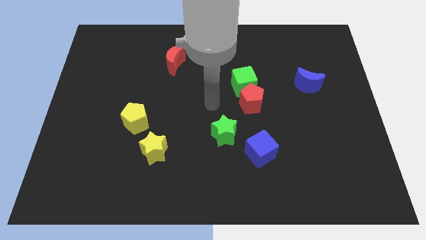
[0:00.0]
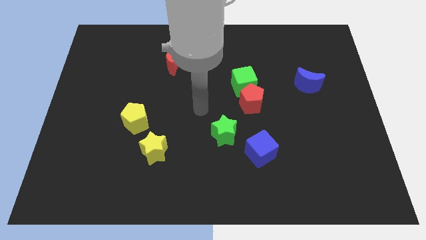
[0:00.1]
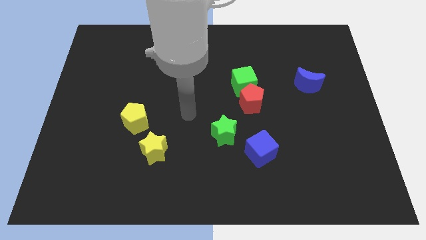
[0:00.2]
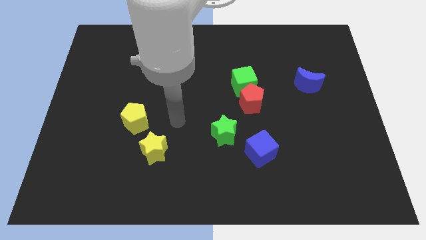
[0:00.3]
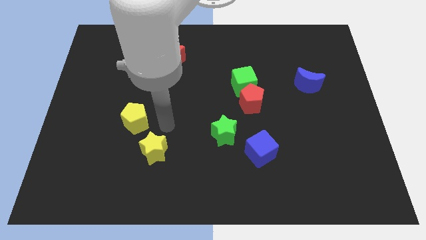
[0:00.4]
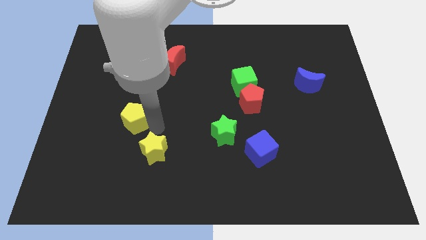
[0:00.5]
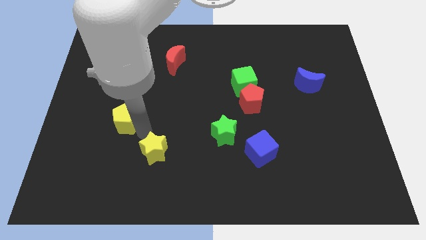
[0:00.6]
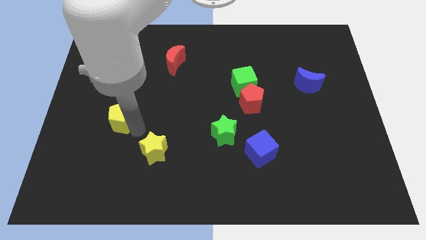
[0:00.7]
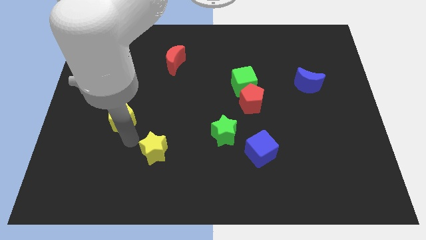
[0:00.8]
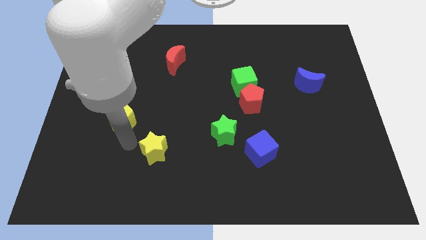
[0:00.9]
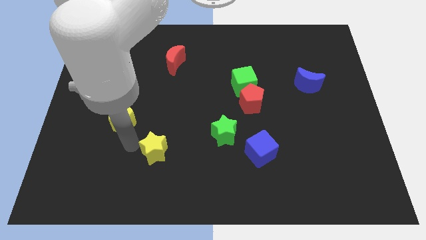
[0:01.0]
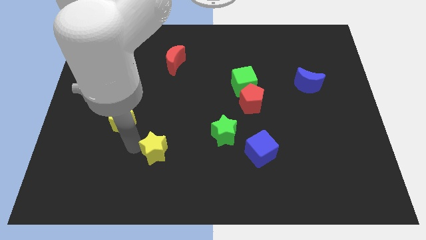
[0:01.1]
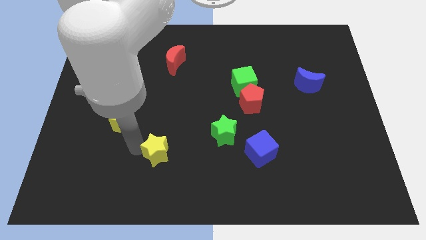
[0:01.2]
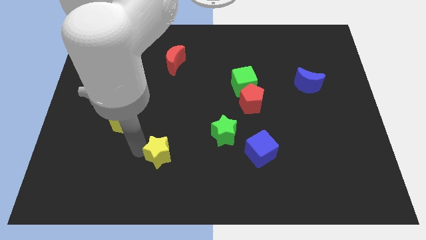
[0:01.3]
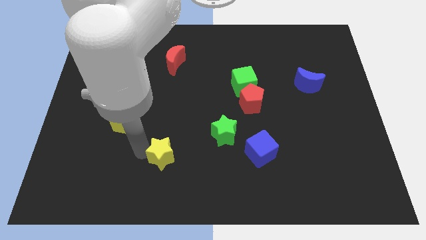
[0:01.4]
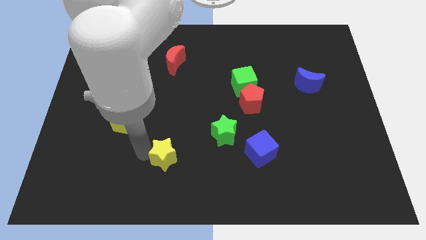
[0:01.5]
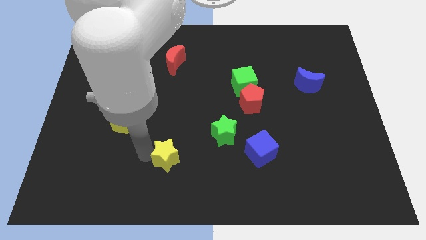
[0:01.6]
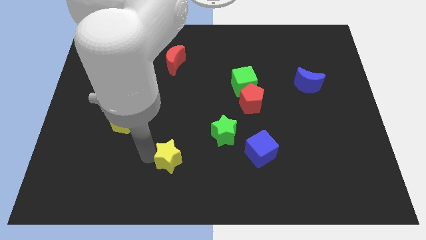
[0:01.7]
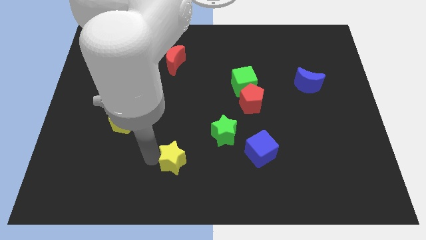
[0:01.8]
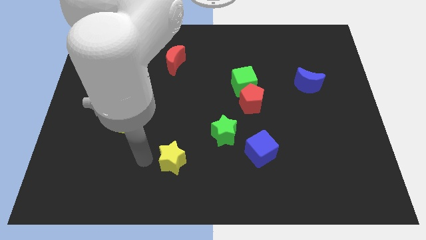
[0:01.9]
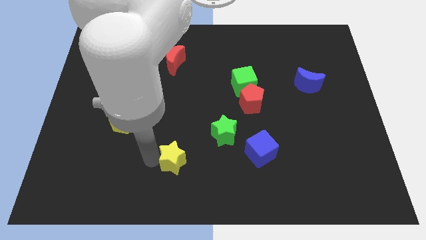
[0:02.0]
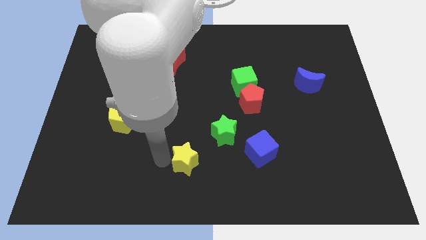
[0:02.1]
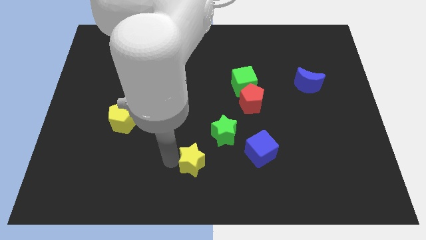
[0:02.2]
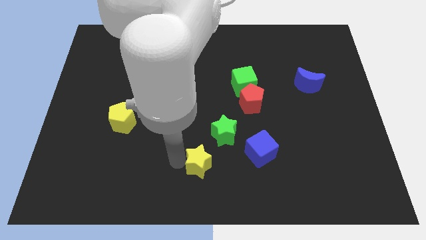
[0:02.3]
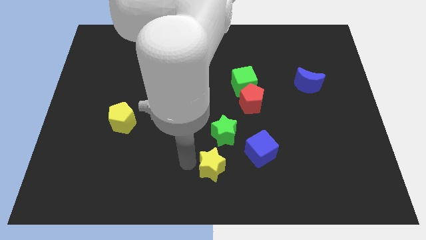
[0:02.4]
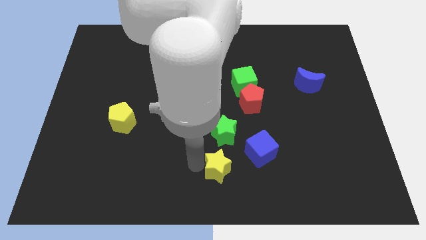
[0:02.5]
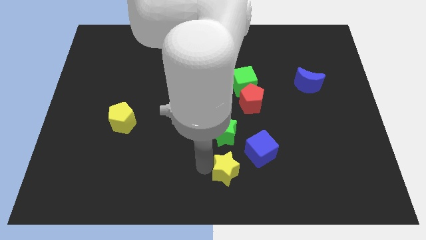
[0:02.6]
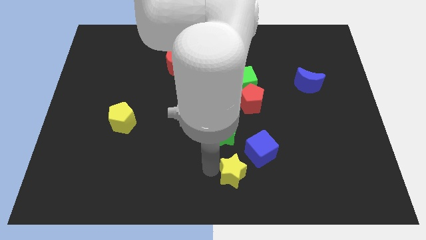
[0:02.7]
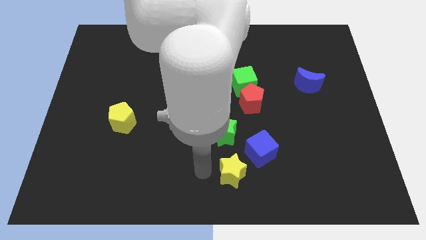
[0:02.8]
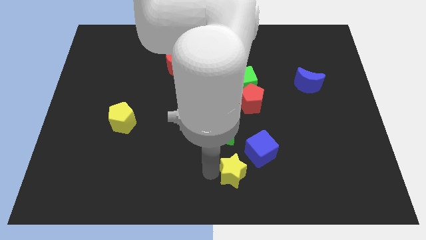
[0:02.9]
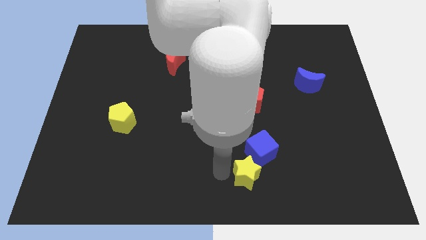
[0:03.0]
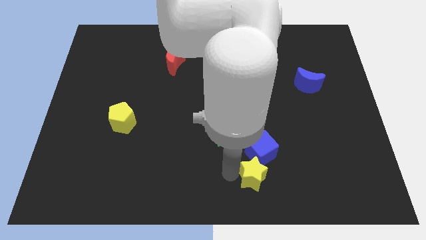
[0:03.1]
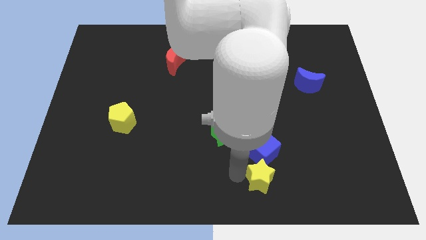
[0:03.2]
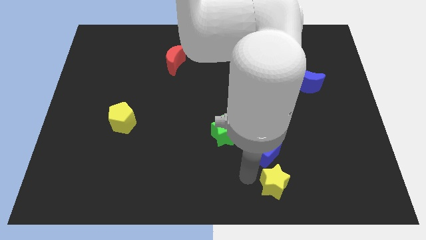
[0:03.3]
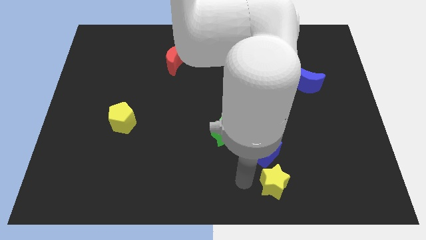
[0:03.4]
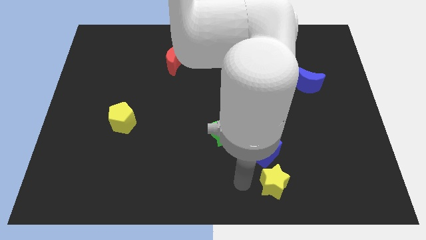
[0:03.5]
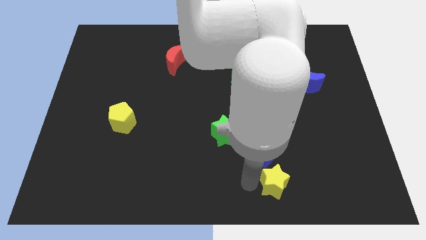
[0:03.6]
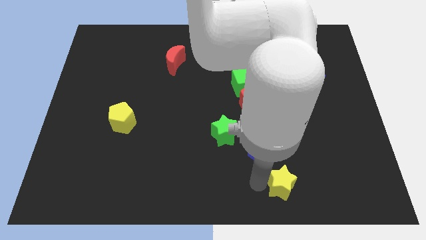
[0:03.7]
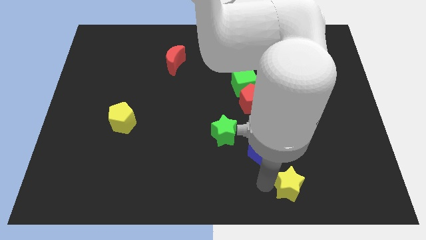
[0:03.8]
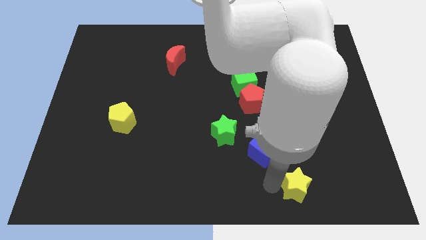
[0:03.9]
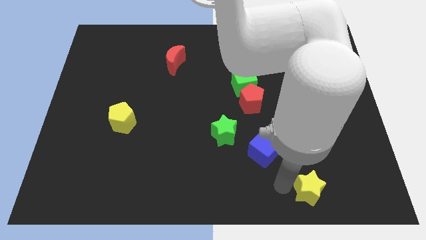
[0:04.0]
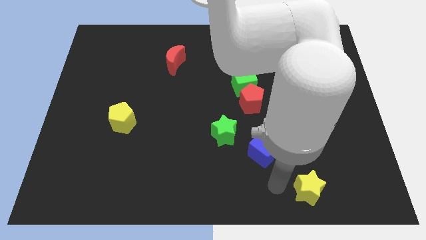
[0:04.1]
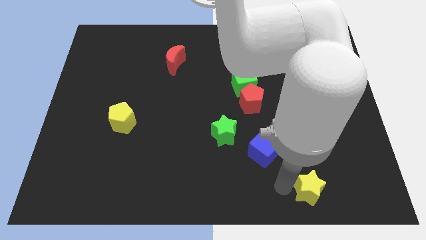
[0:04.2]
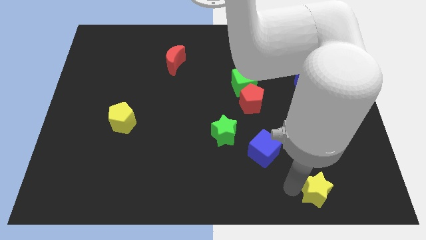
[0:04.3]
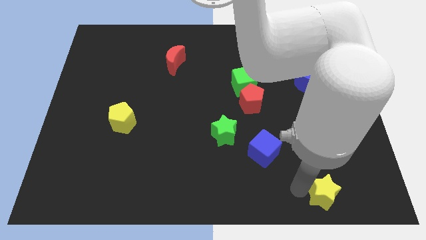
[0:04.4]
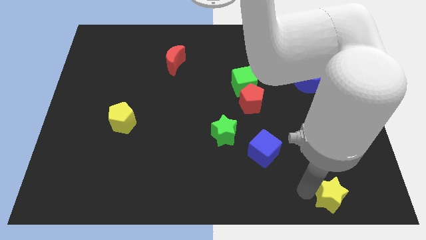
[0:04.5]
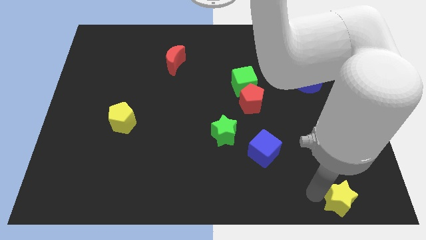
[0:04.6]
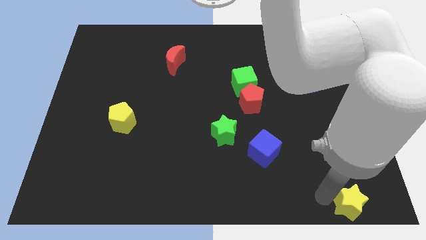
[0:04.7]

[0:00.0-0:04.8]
put the yellow star to the bottom right corner

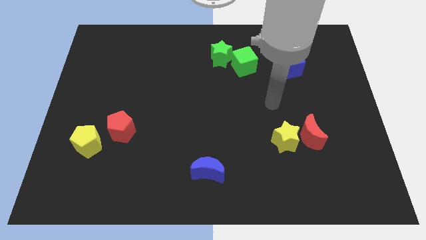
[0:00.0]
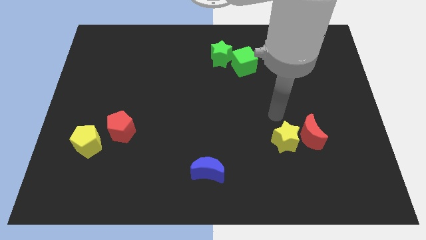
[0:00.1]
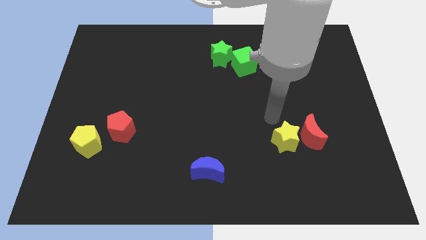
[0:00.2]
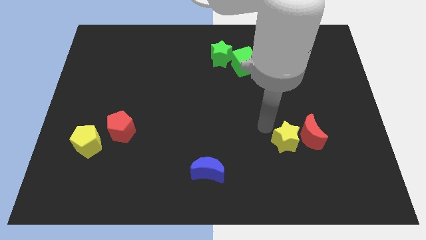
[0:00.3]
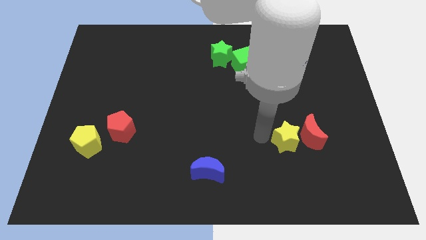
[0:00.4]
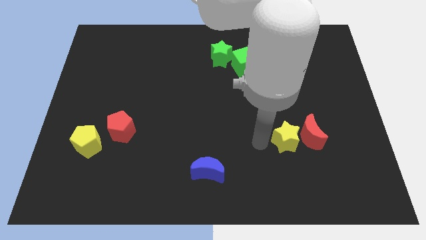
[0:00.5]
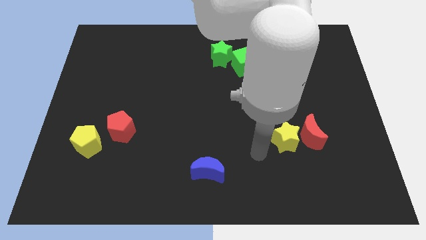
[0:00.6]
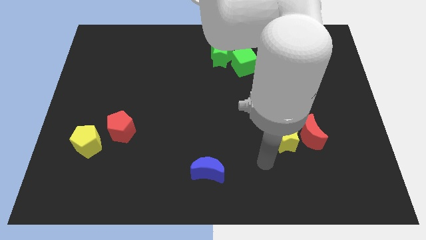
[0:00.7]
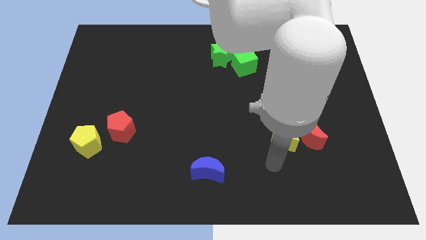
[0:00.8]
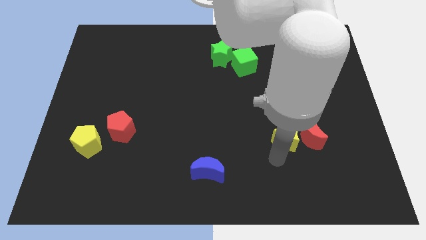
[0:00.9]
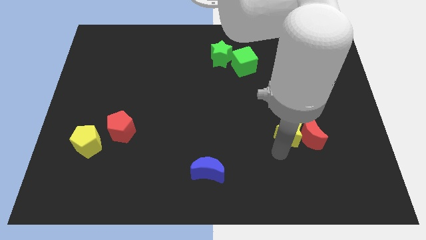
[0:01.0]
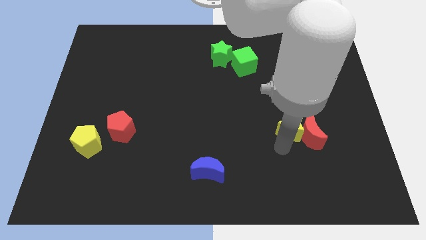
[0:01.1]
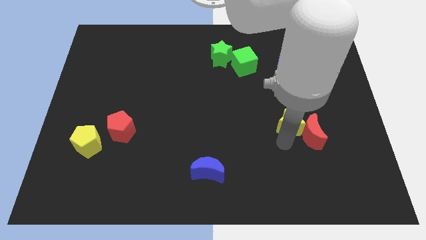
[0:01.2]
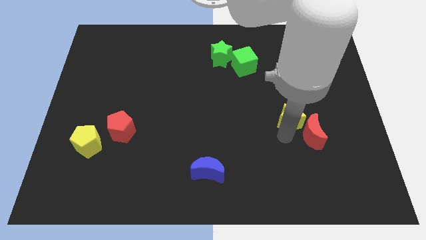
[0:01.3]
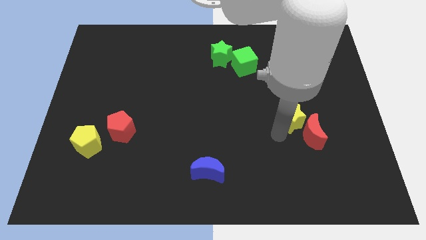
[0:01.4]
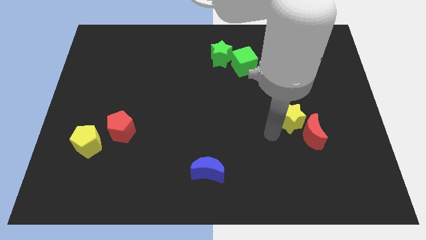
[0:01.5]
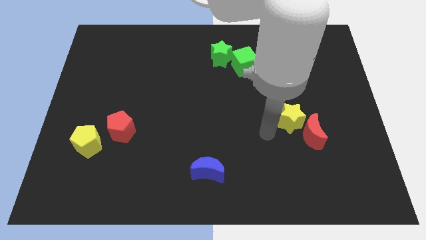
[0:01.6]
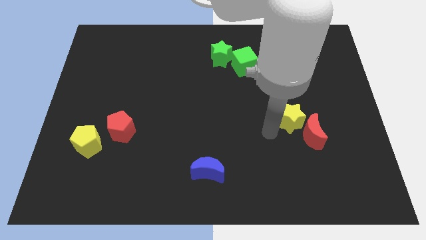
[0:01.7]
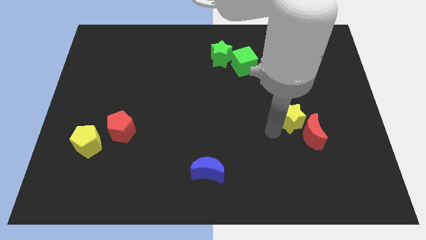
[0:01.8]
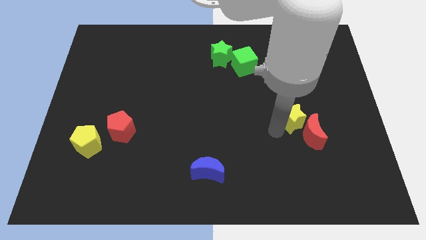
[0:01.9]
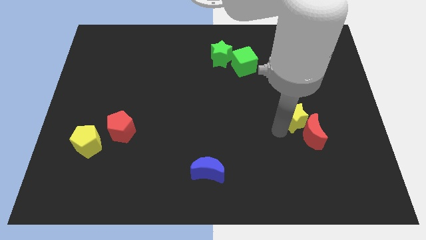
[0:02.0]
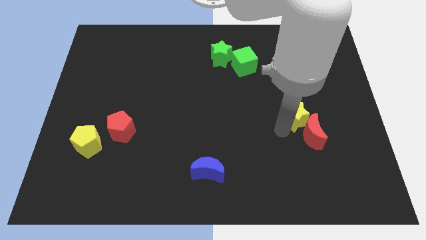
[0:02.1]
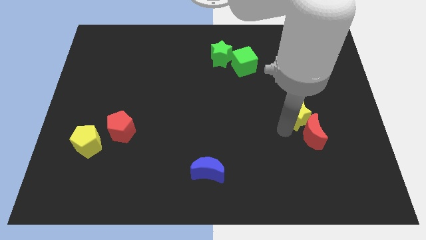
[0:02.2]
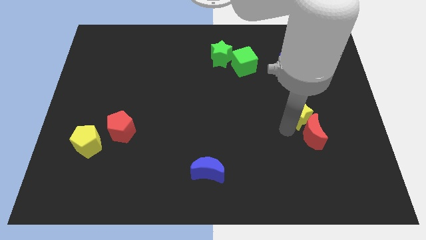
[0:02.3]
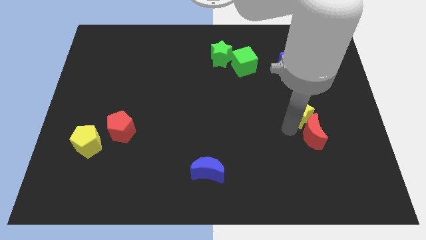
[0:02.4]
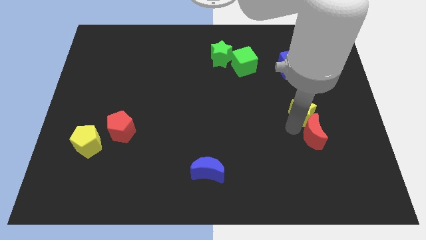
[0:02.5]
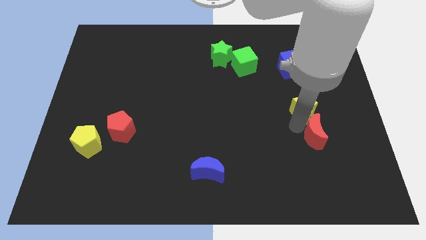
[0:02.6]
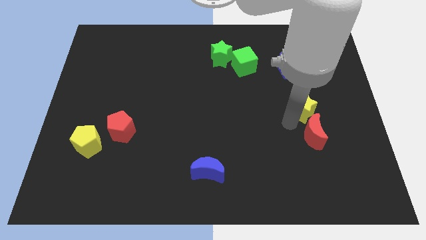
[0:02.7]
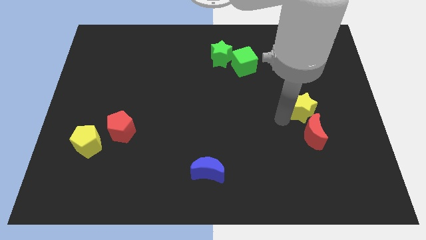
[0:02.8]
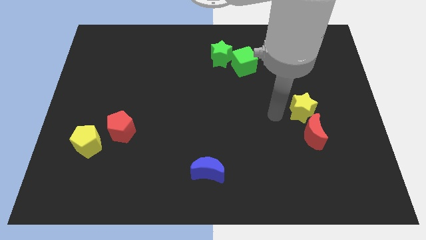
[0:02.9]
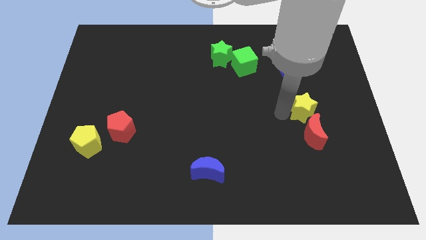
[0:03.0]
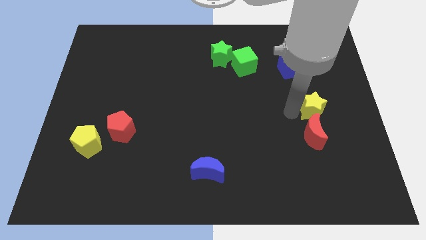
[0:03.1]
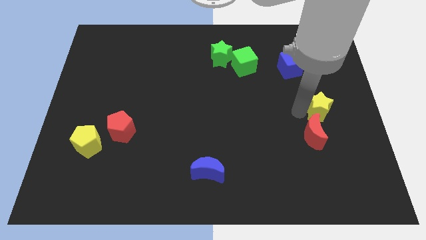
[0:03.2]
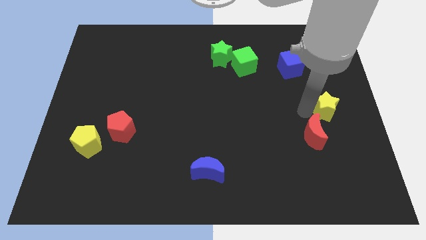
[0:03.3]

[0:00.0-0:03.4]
slide the yellow star to the right side
